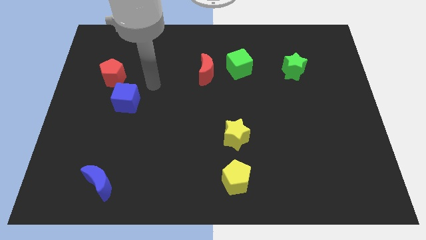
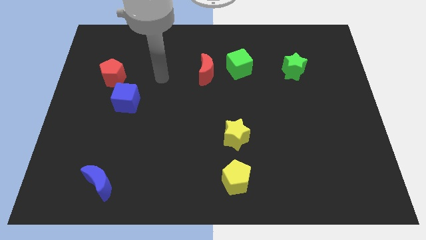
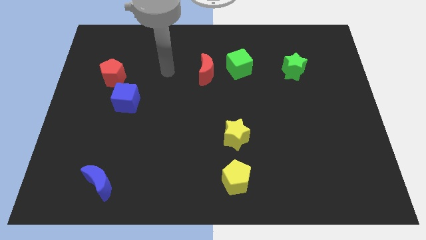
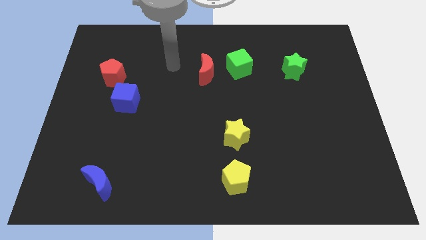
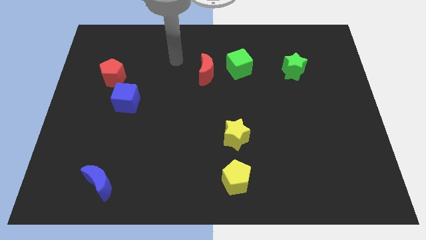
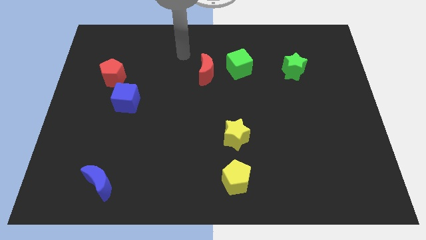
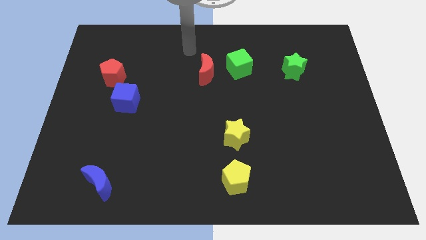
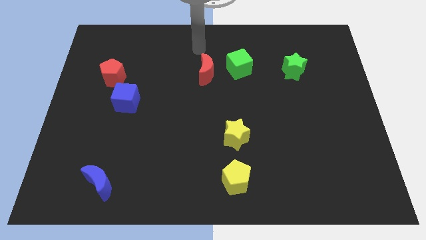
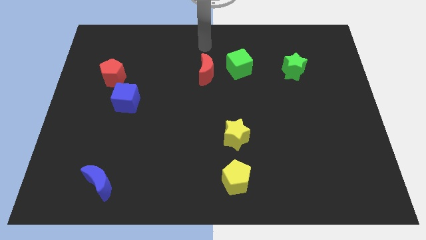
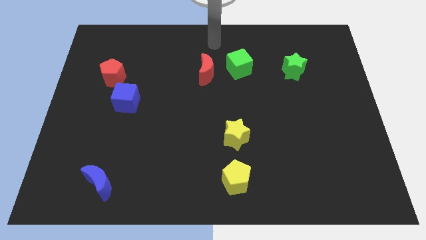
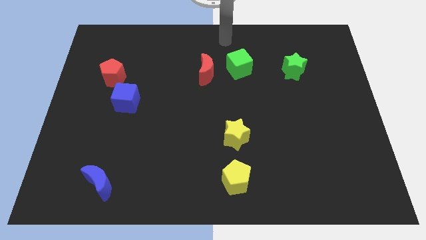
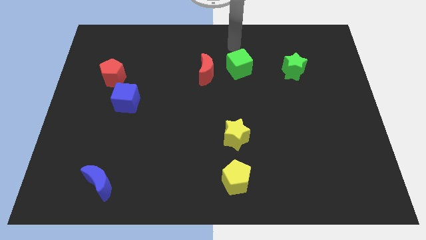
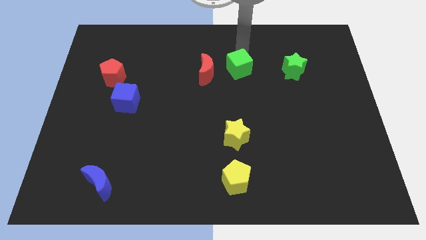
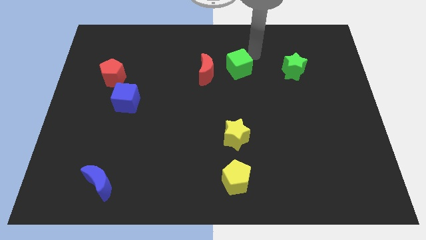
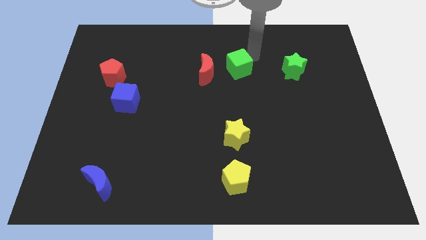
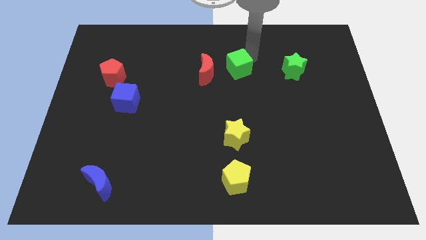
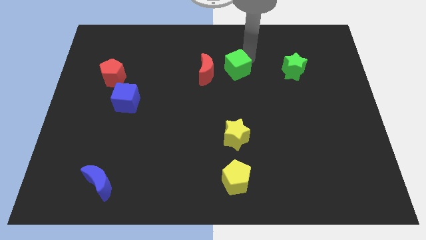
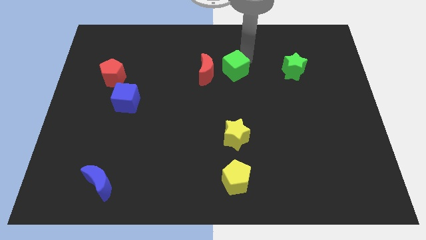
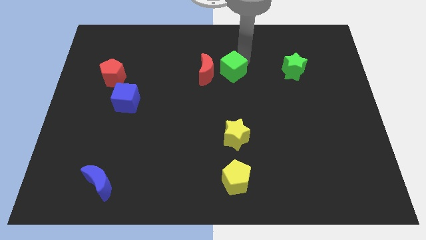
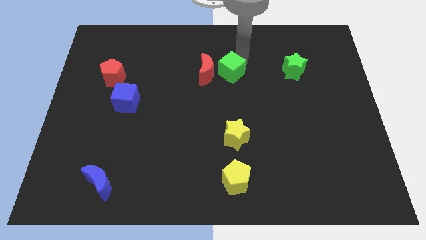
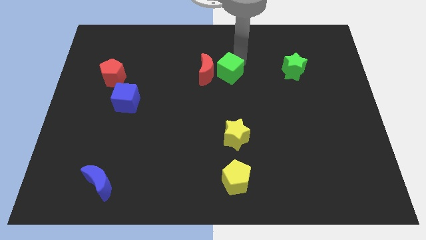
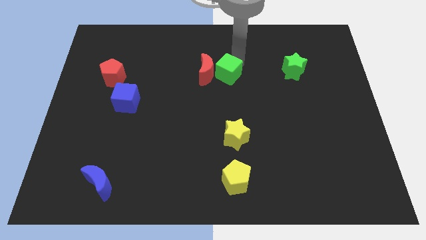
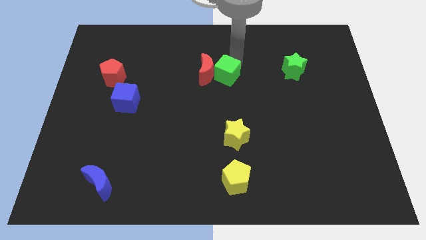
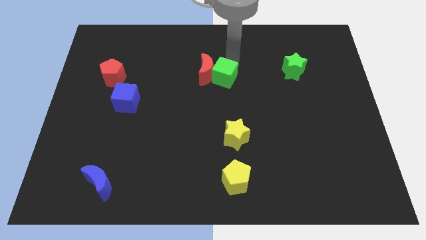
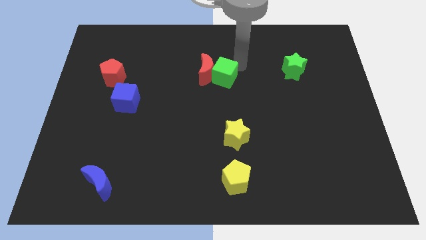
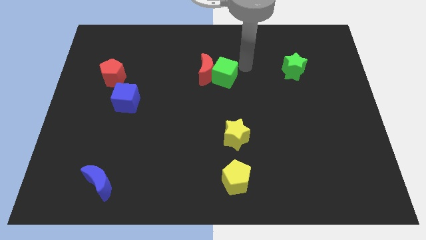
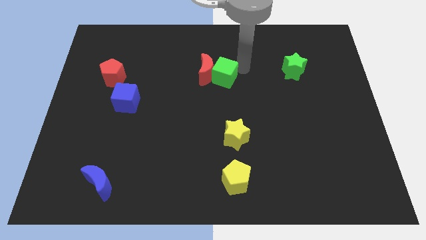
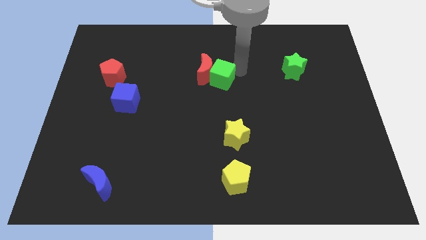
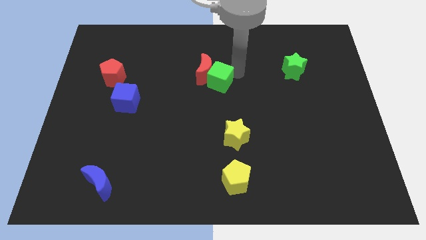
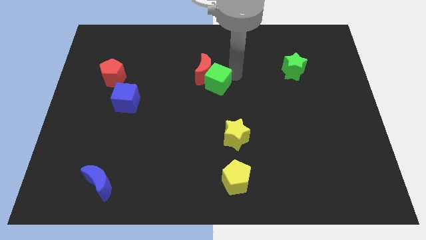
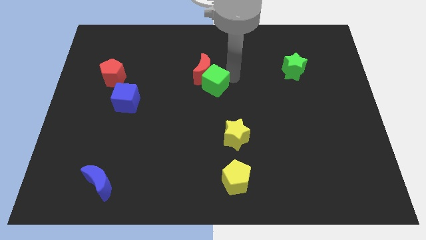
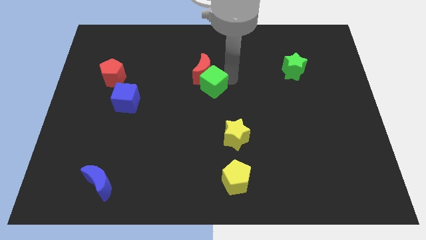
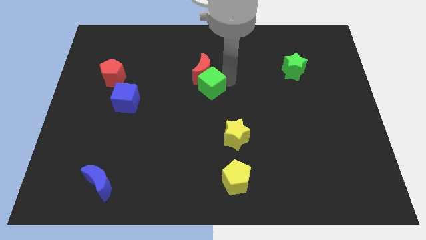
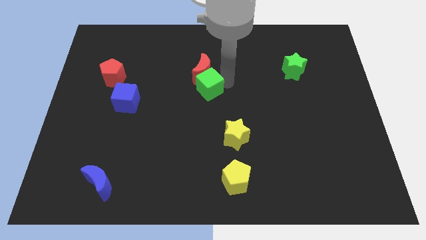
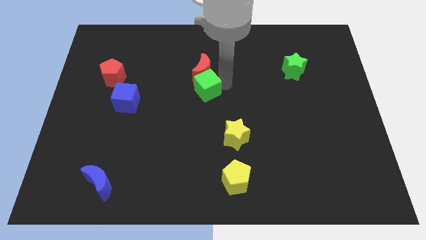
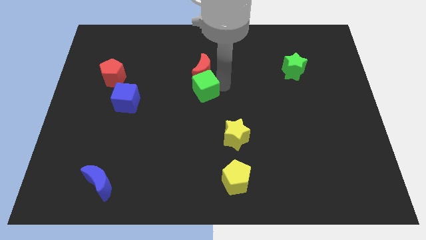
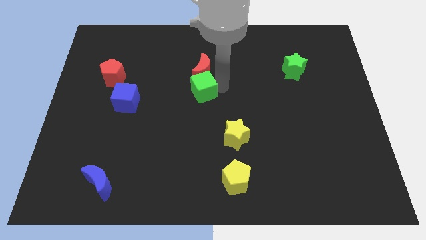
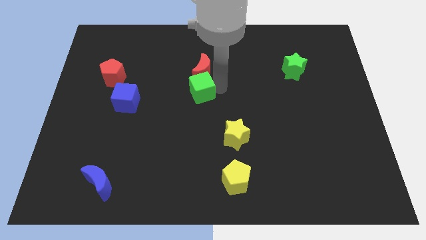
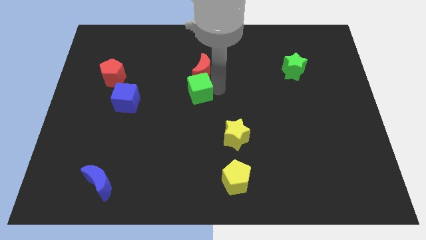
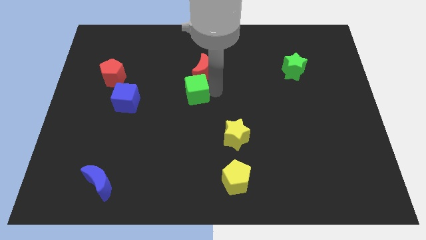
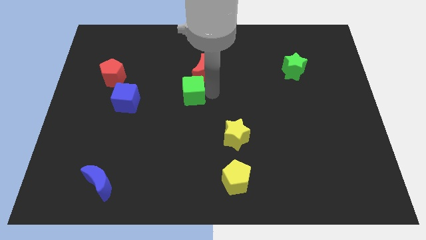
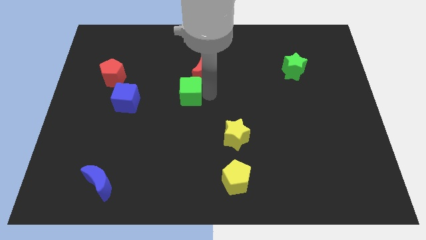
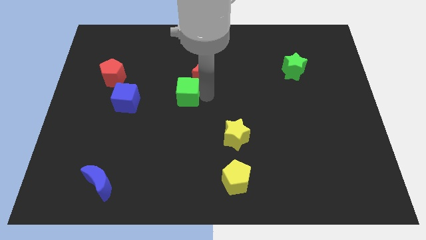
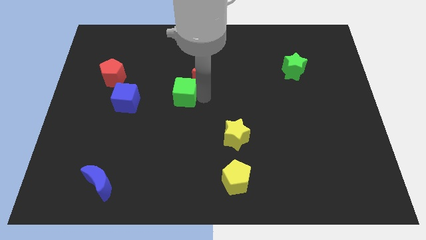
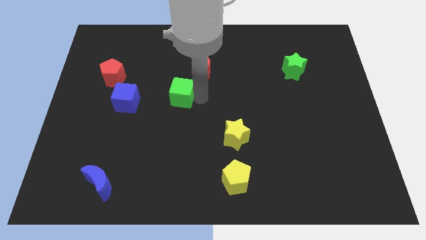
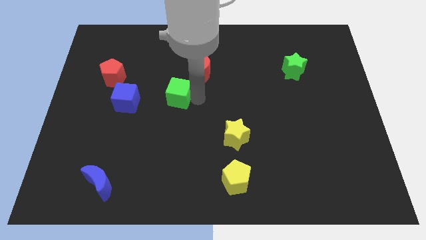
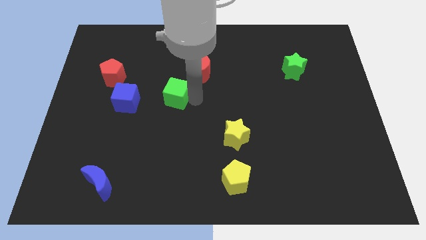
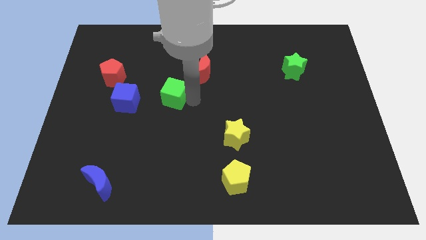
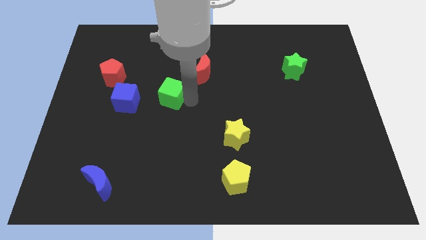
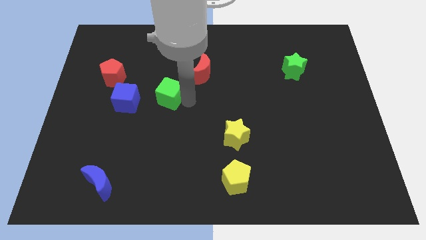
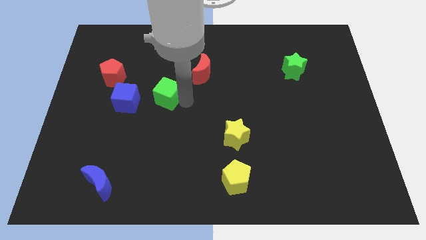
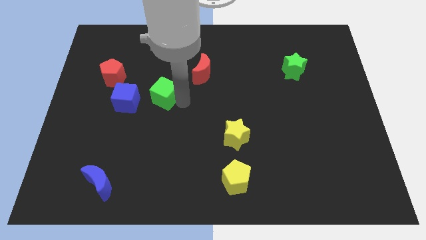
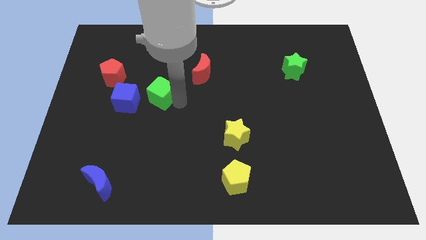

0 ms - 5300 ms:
slide the green cube diagonally up and to the right of the blue cube

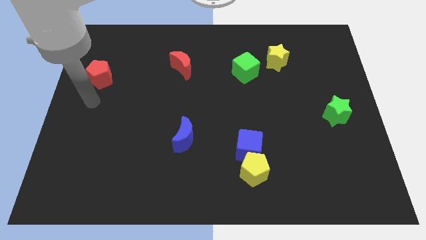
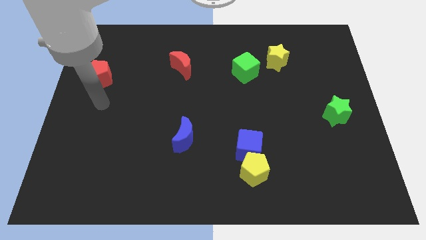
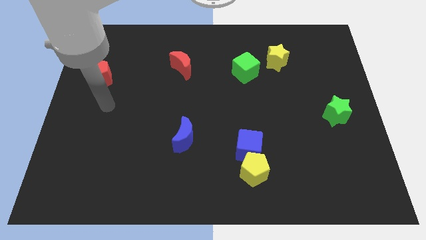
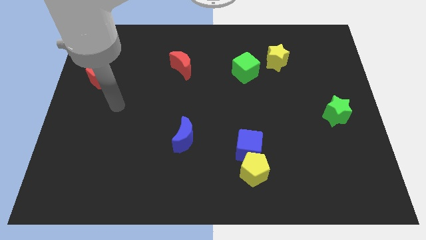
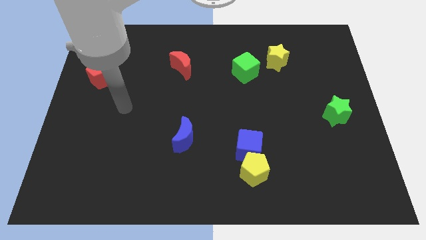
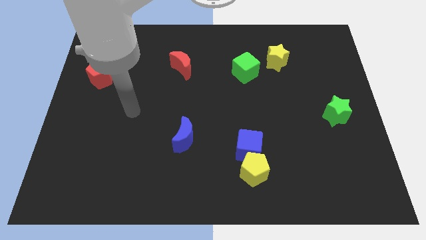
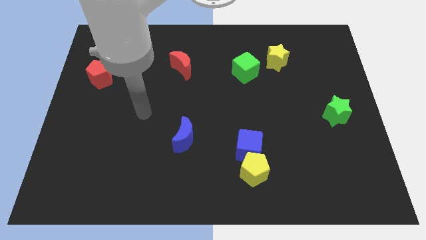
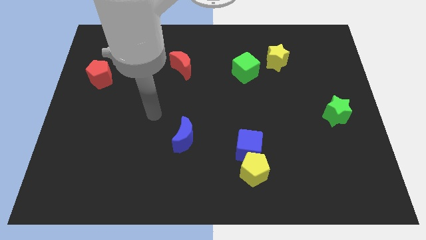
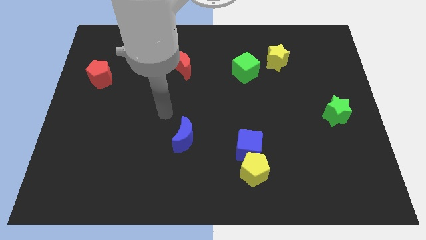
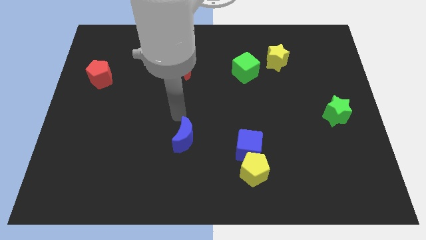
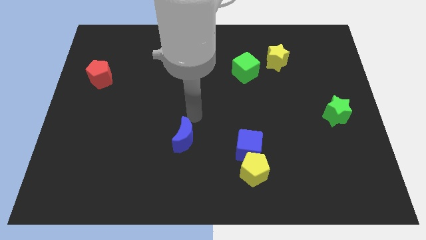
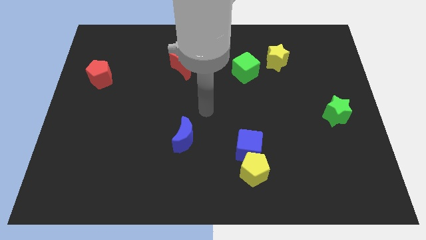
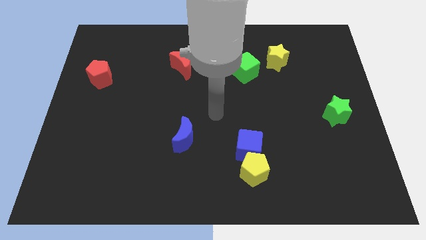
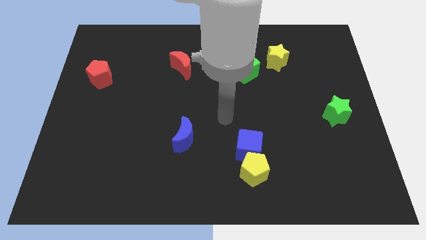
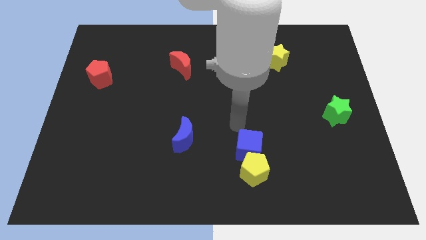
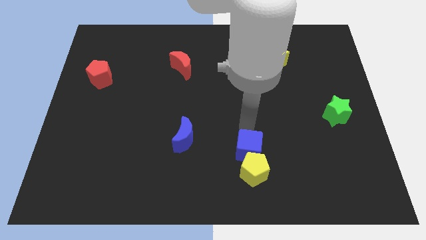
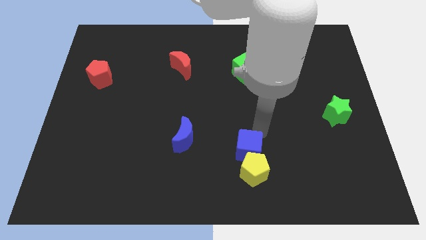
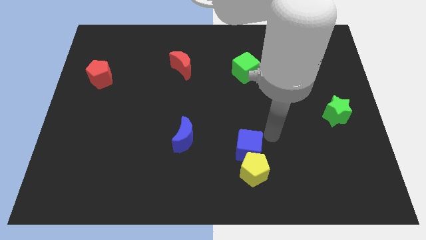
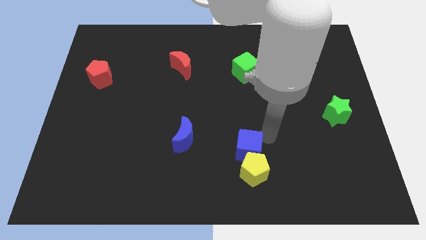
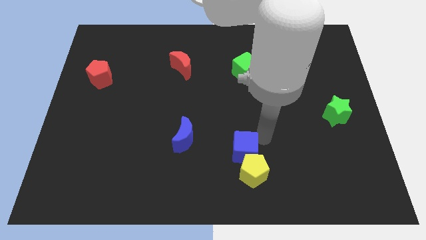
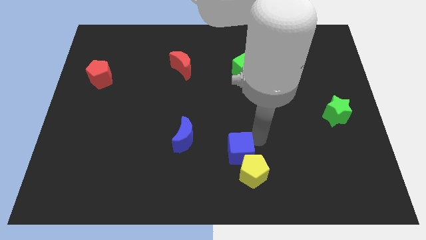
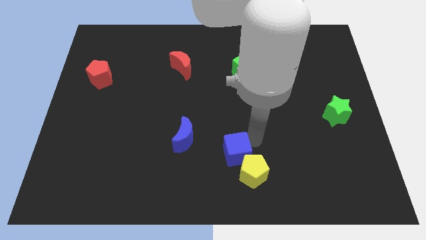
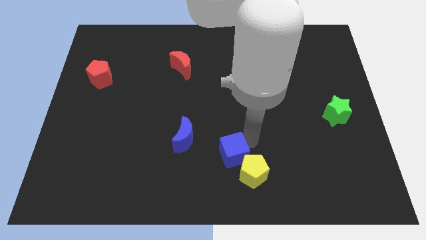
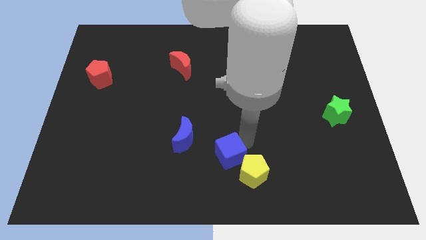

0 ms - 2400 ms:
push the blue cube left of the yellow pentagon
